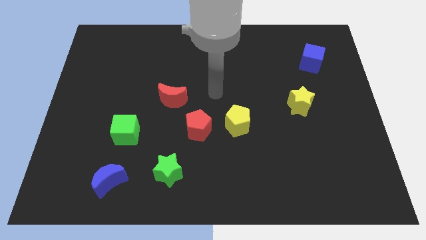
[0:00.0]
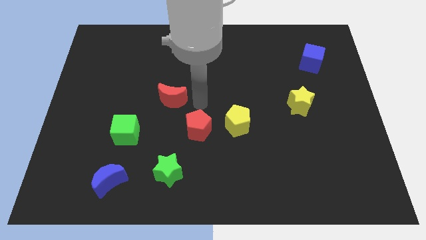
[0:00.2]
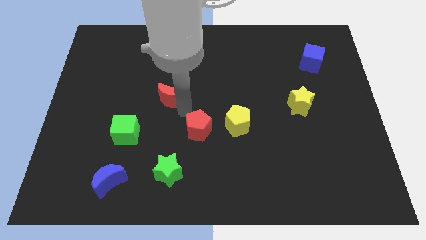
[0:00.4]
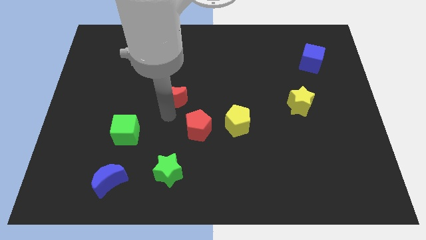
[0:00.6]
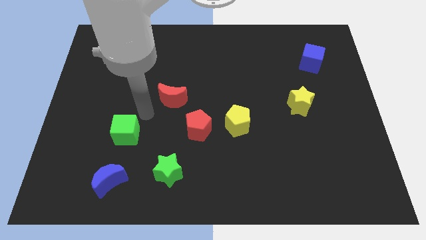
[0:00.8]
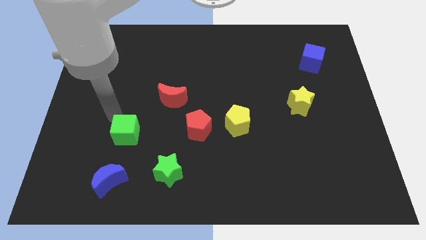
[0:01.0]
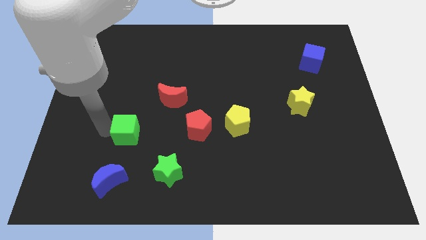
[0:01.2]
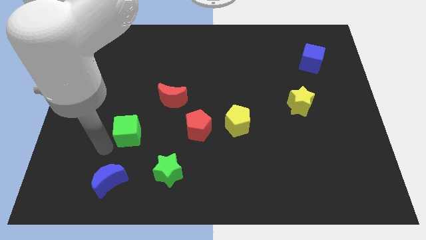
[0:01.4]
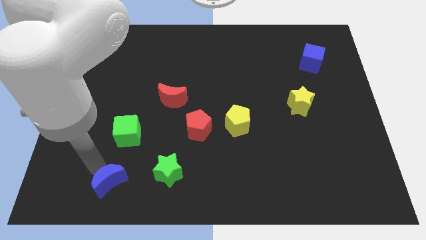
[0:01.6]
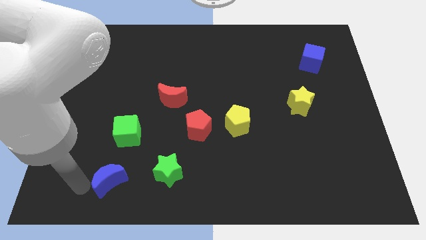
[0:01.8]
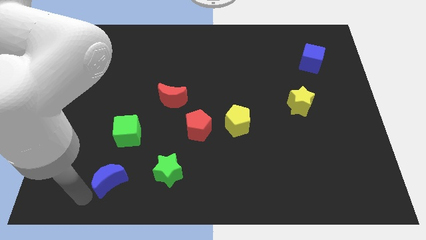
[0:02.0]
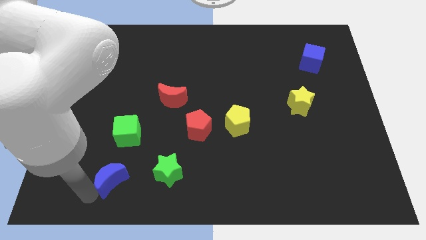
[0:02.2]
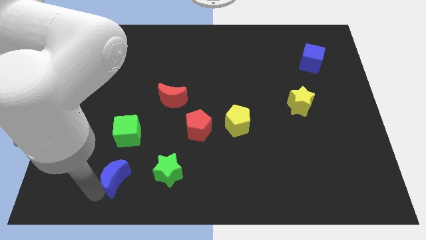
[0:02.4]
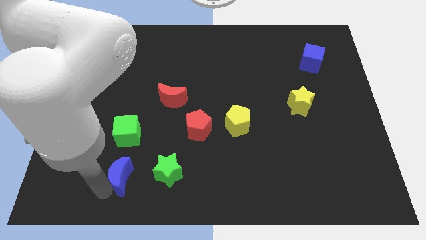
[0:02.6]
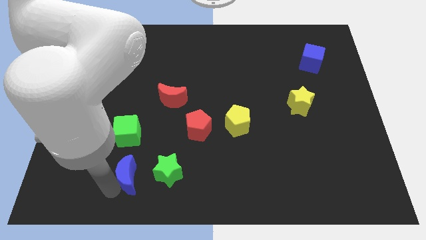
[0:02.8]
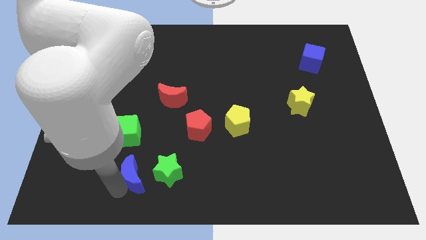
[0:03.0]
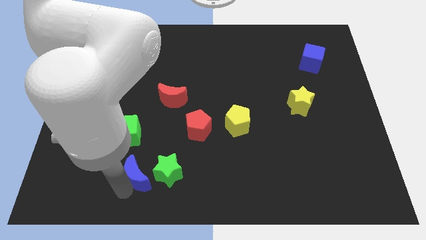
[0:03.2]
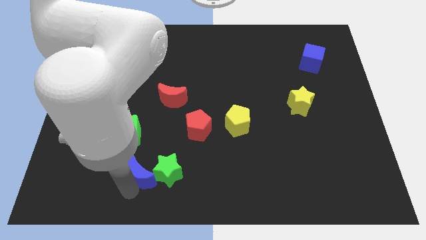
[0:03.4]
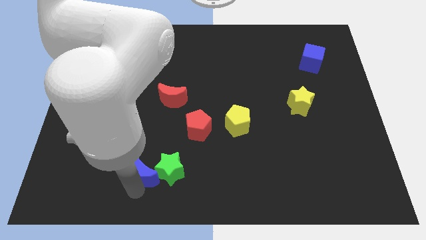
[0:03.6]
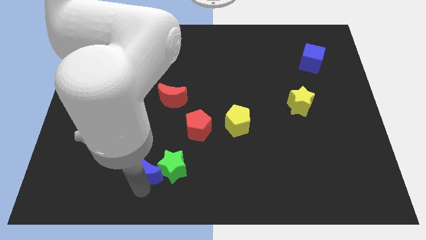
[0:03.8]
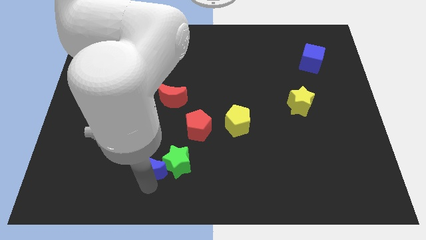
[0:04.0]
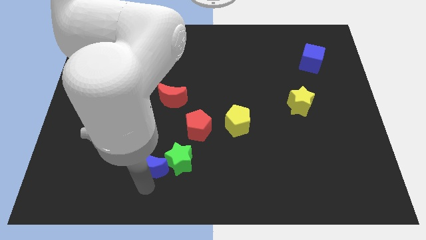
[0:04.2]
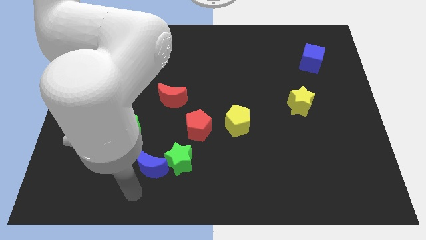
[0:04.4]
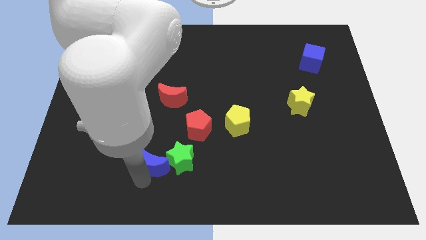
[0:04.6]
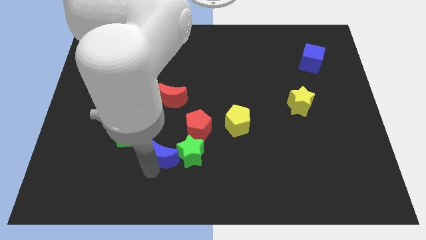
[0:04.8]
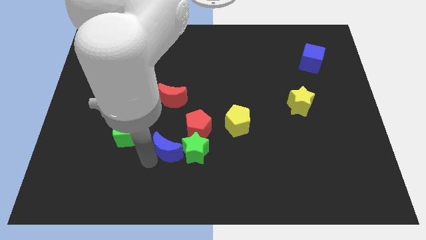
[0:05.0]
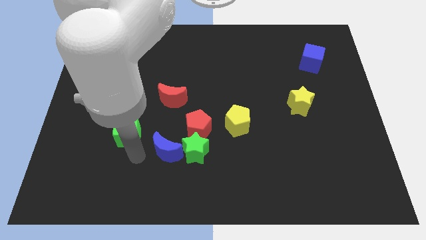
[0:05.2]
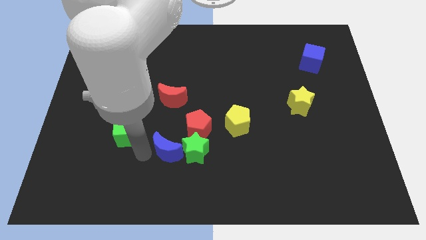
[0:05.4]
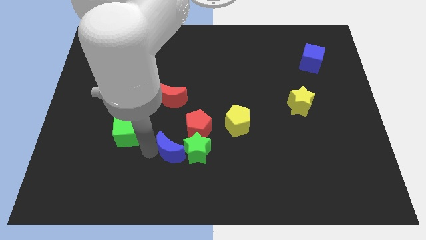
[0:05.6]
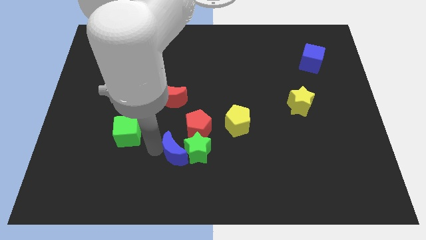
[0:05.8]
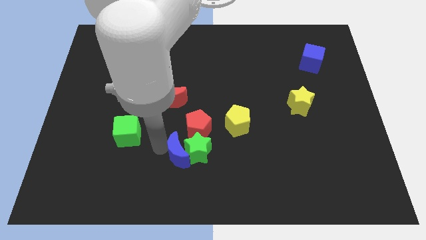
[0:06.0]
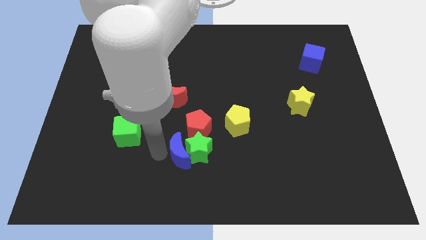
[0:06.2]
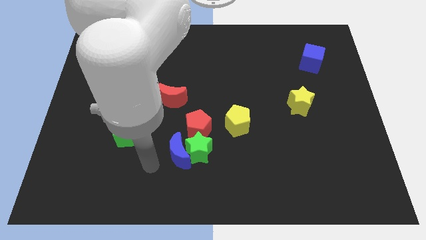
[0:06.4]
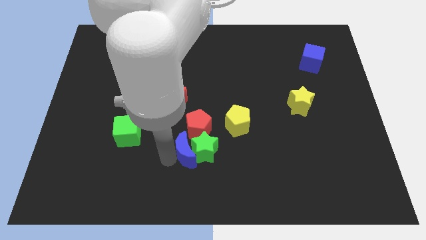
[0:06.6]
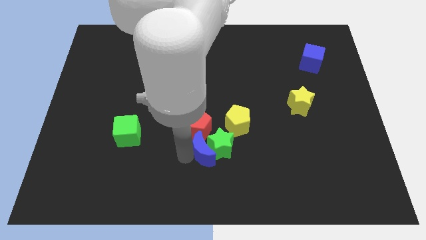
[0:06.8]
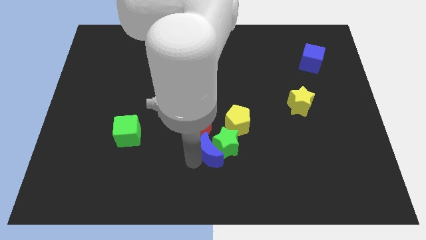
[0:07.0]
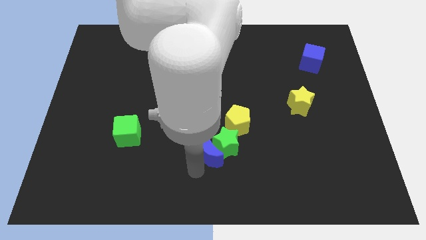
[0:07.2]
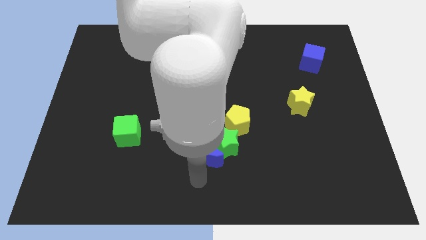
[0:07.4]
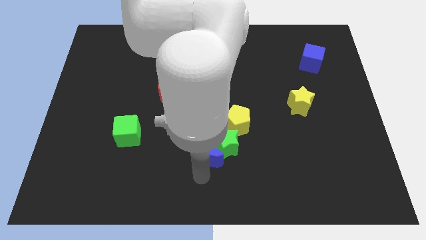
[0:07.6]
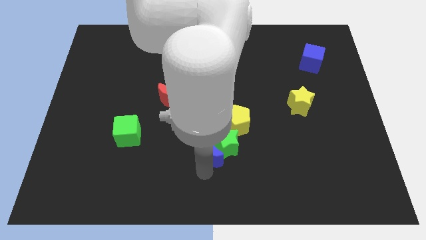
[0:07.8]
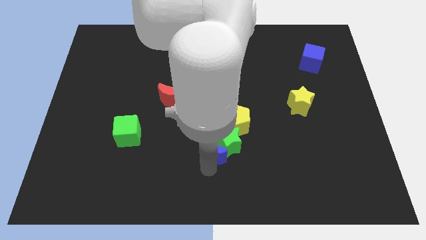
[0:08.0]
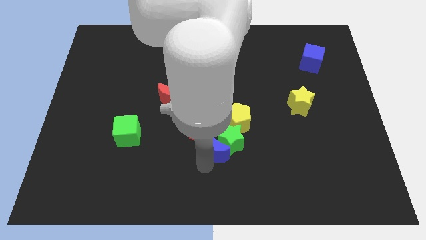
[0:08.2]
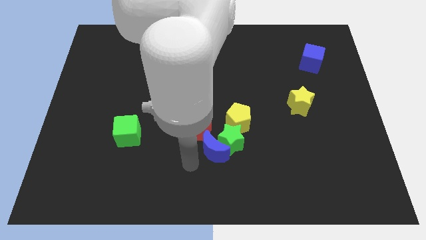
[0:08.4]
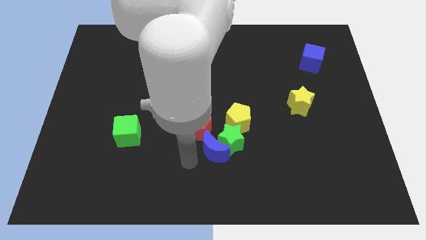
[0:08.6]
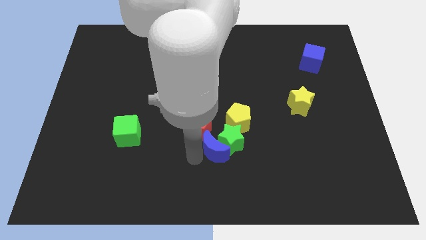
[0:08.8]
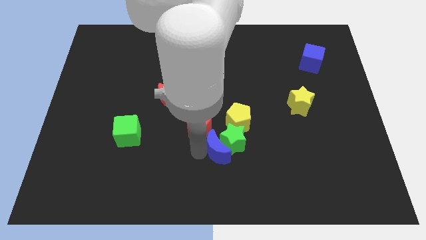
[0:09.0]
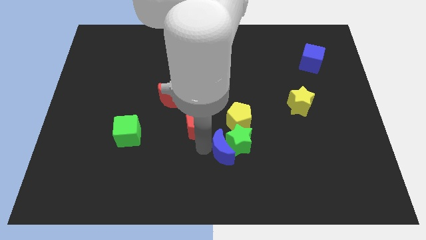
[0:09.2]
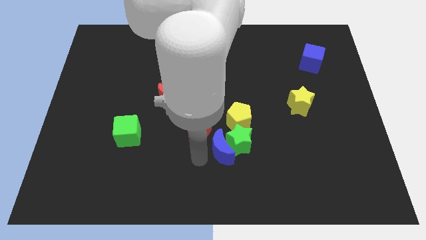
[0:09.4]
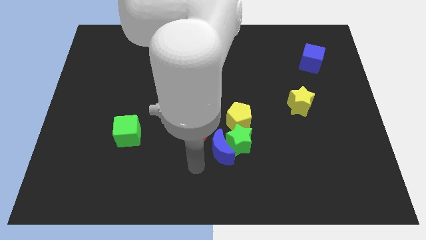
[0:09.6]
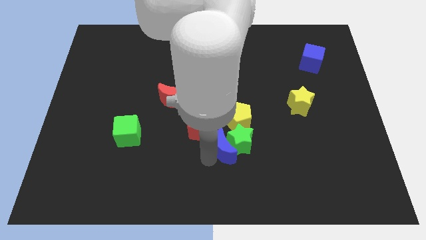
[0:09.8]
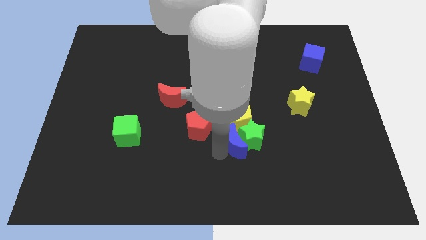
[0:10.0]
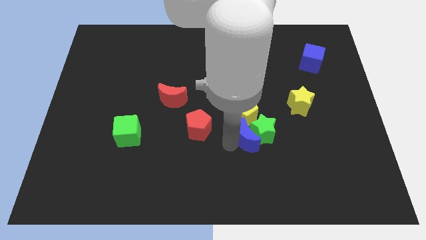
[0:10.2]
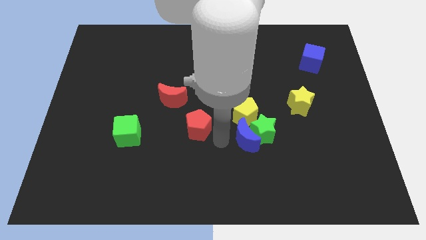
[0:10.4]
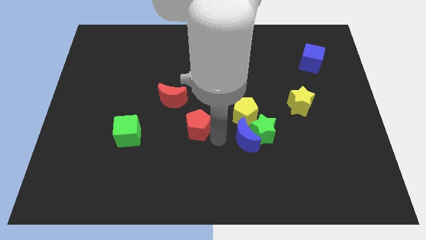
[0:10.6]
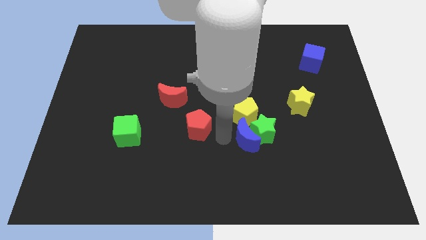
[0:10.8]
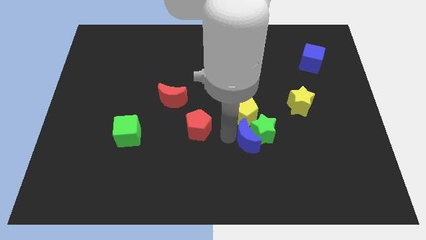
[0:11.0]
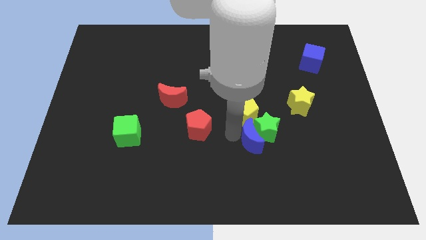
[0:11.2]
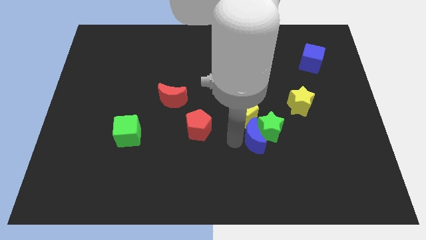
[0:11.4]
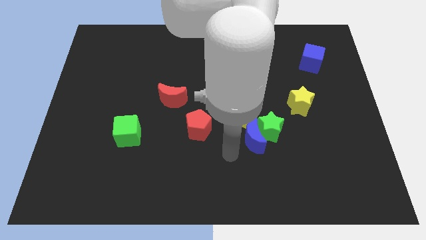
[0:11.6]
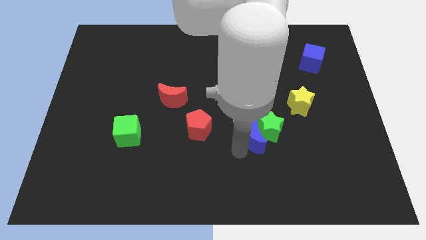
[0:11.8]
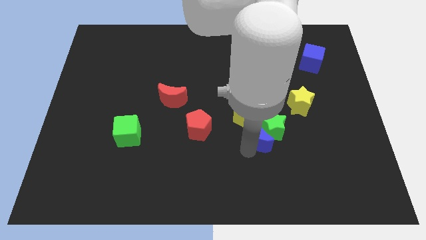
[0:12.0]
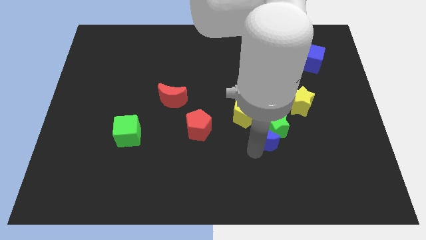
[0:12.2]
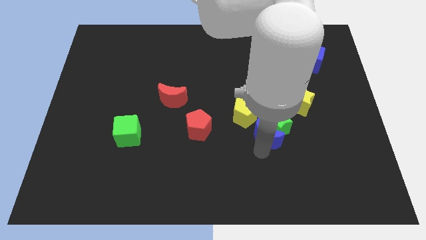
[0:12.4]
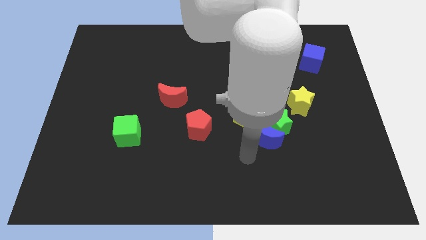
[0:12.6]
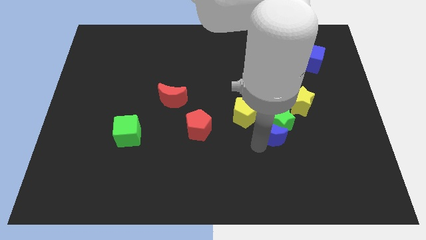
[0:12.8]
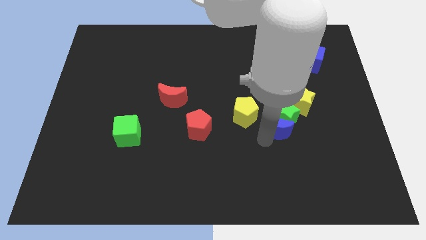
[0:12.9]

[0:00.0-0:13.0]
slide the blue moon to the right of the yellow pentagon
